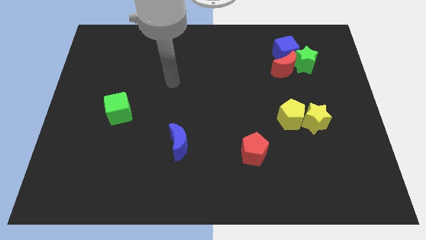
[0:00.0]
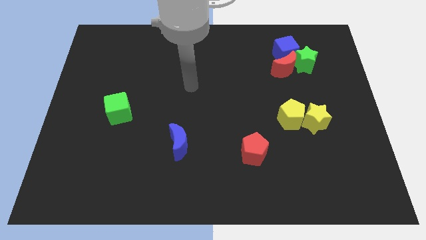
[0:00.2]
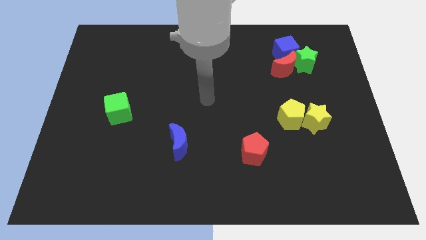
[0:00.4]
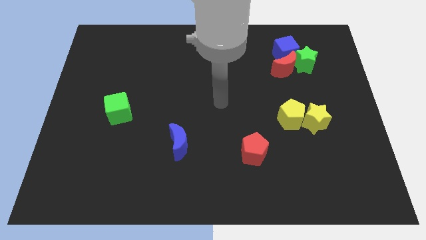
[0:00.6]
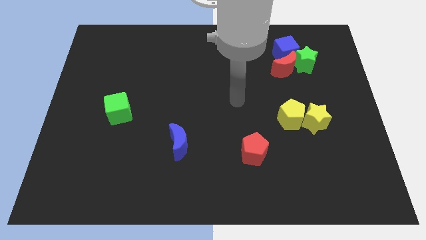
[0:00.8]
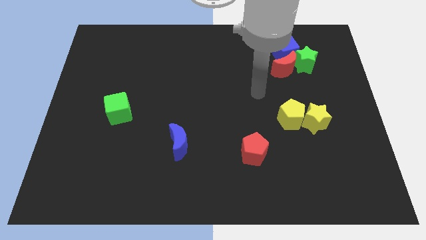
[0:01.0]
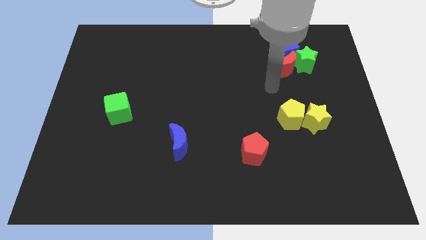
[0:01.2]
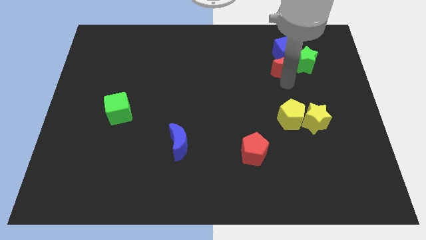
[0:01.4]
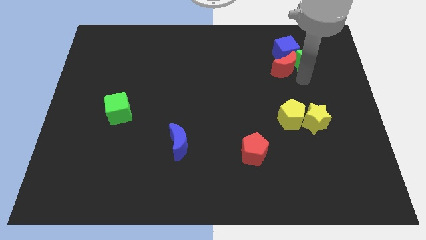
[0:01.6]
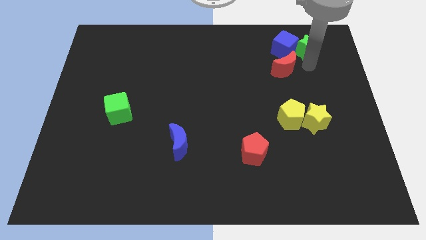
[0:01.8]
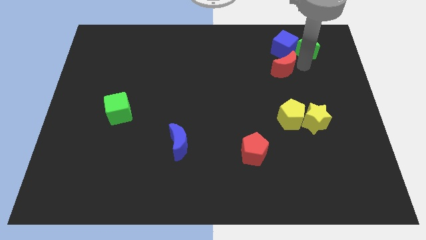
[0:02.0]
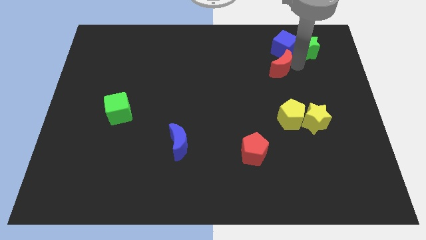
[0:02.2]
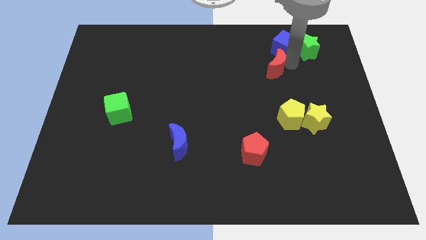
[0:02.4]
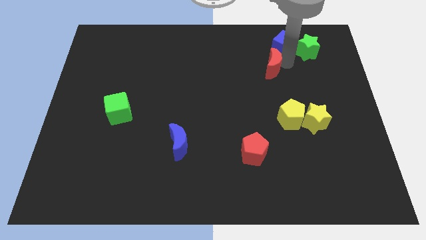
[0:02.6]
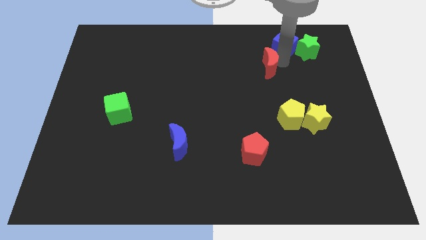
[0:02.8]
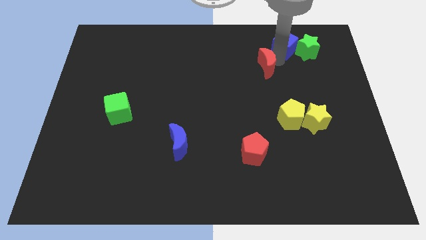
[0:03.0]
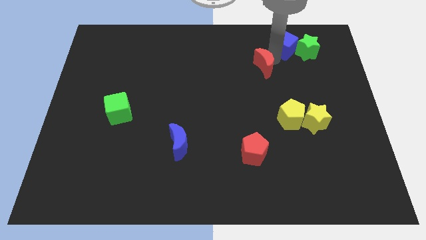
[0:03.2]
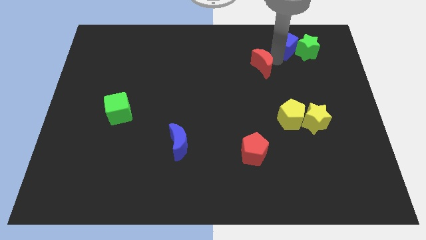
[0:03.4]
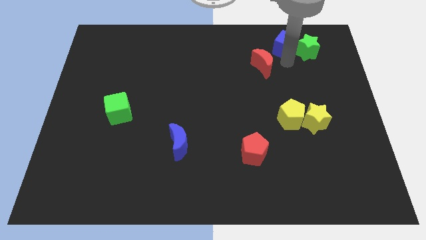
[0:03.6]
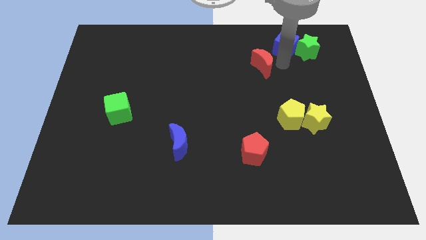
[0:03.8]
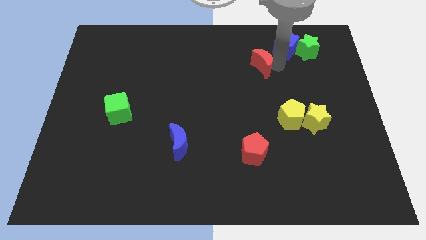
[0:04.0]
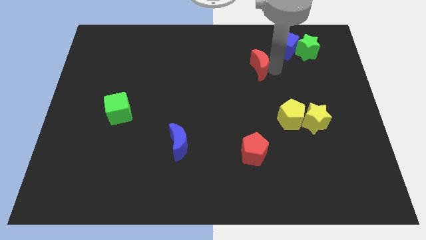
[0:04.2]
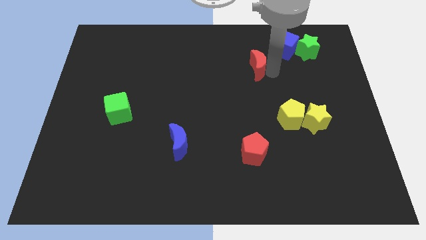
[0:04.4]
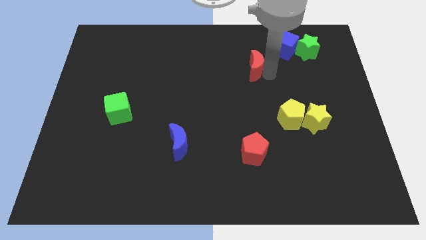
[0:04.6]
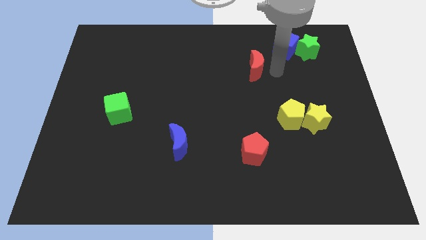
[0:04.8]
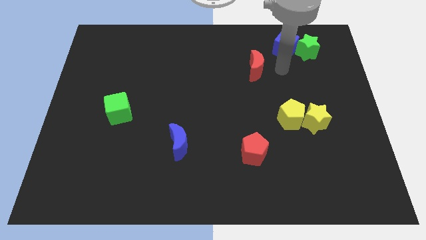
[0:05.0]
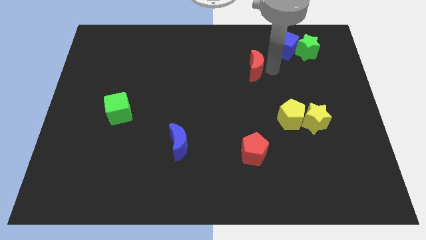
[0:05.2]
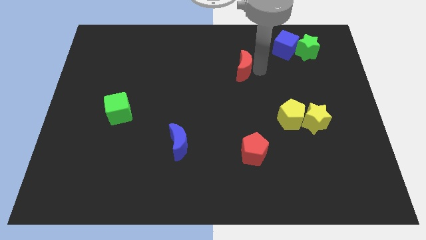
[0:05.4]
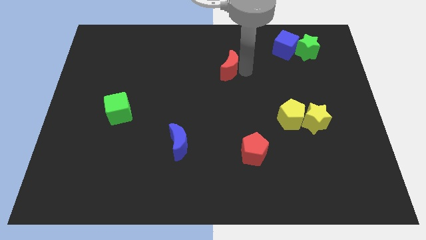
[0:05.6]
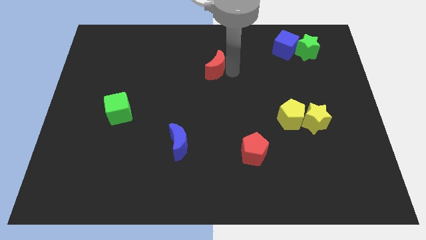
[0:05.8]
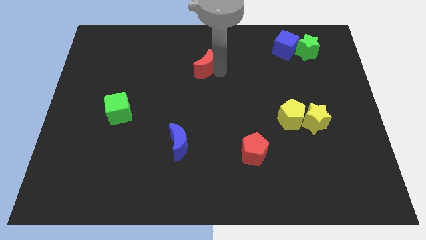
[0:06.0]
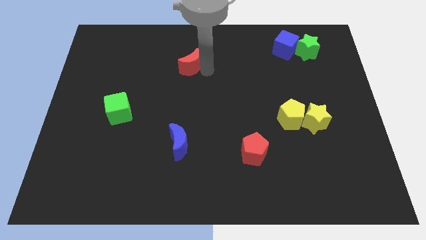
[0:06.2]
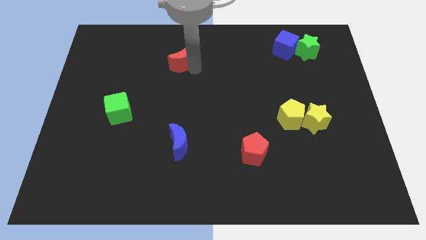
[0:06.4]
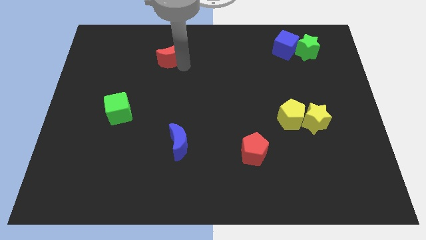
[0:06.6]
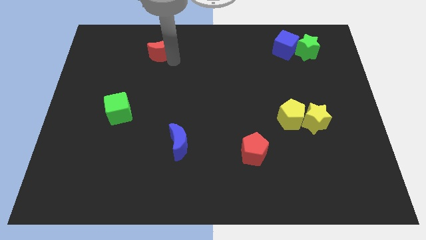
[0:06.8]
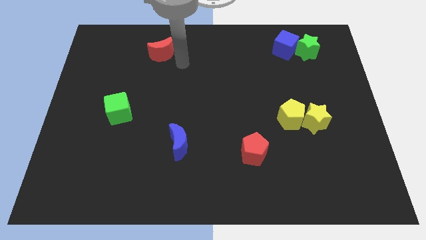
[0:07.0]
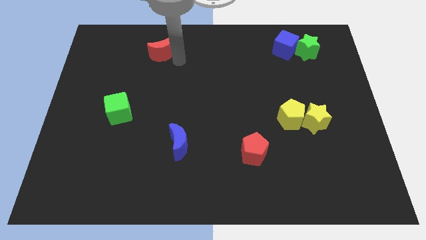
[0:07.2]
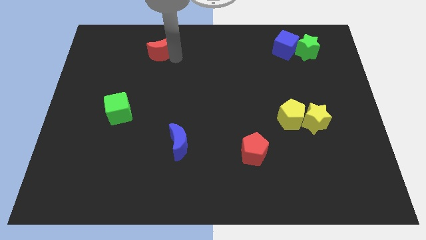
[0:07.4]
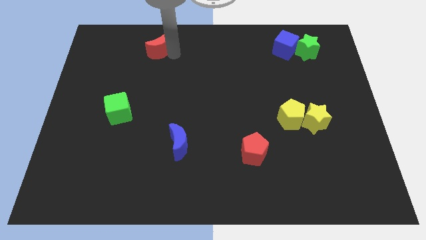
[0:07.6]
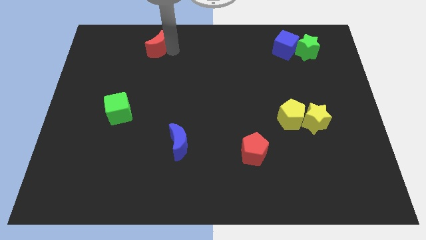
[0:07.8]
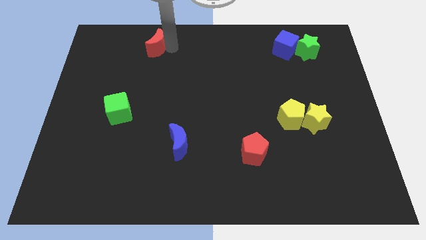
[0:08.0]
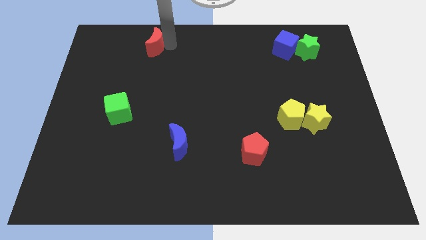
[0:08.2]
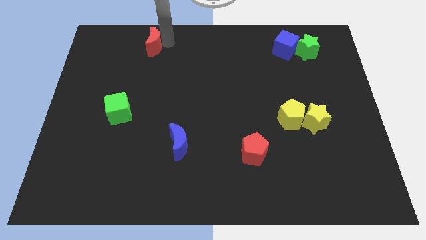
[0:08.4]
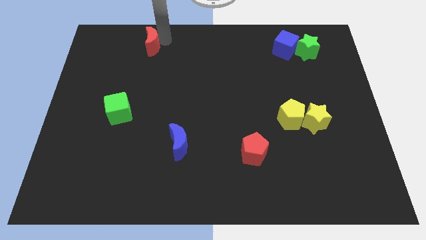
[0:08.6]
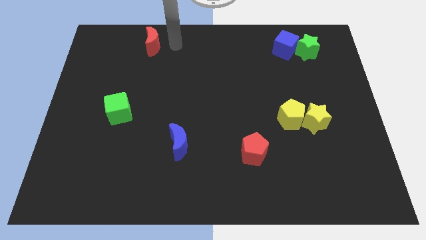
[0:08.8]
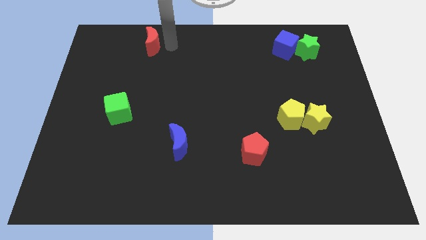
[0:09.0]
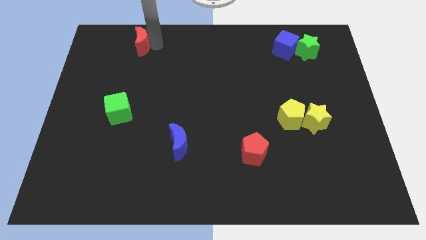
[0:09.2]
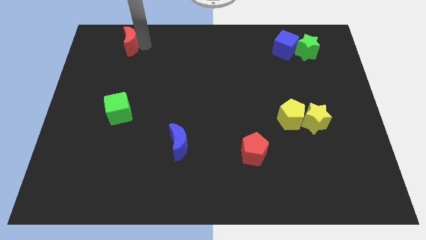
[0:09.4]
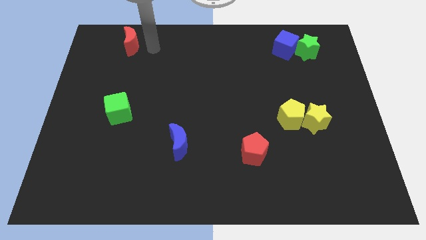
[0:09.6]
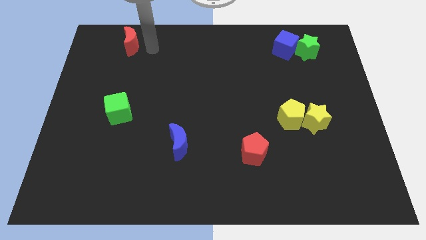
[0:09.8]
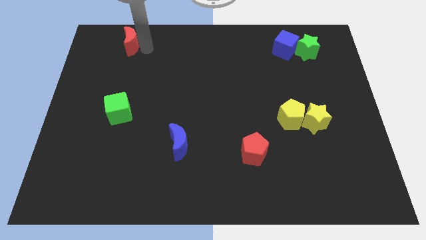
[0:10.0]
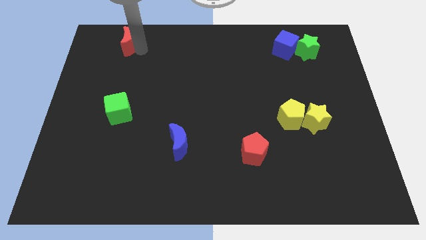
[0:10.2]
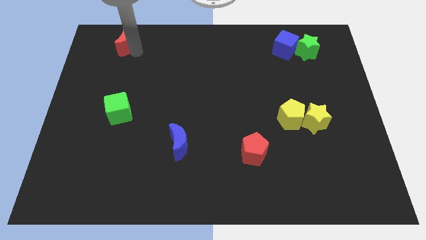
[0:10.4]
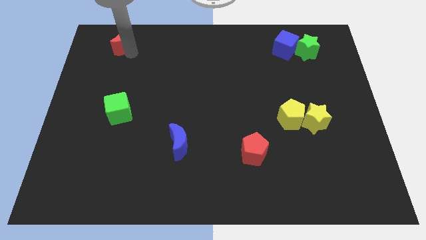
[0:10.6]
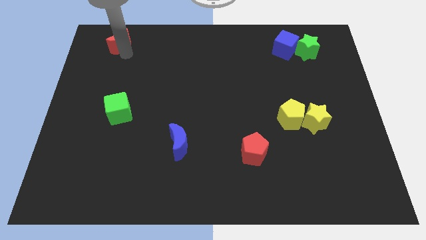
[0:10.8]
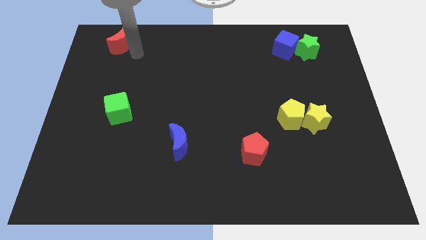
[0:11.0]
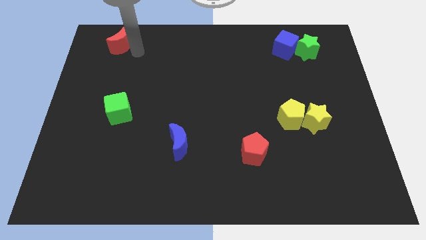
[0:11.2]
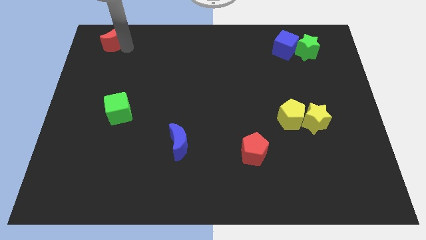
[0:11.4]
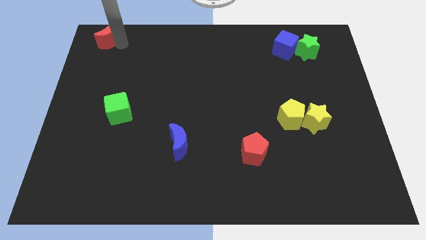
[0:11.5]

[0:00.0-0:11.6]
move the red moon to the top left
